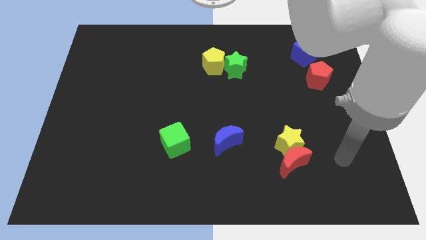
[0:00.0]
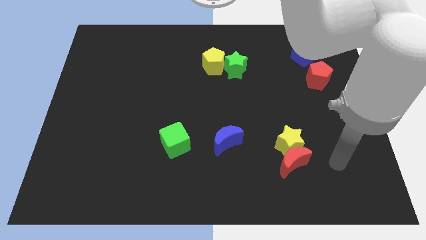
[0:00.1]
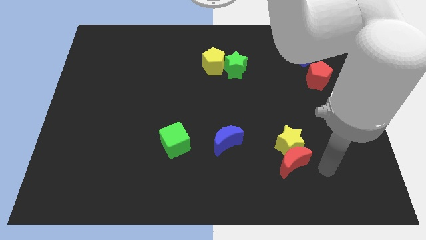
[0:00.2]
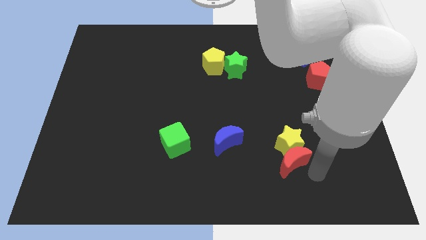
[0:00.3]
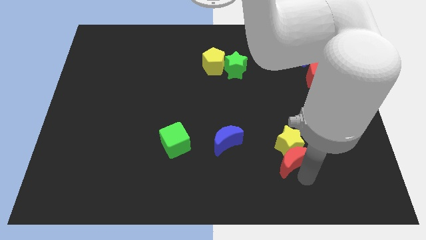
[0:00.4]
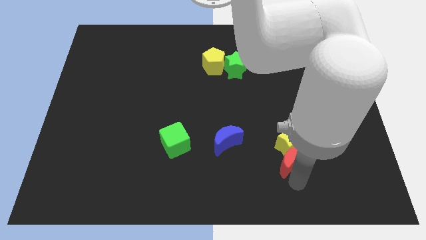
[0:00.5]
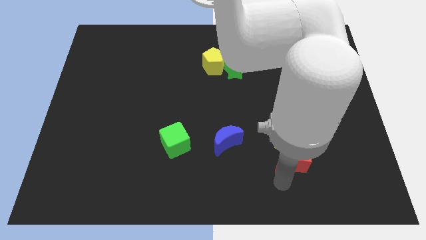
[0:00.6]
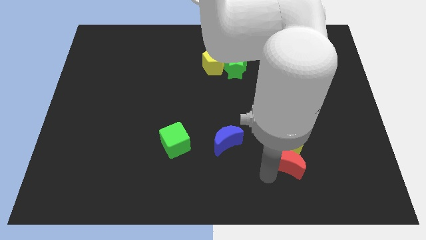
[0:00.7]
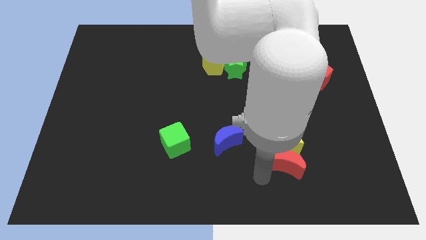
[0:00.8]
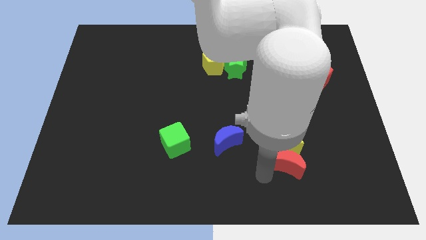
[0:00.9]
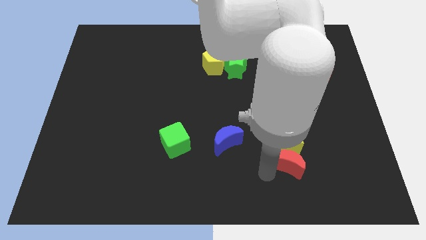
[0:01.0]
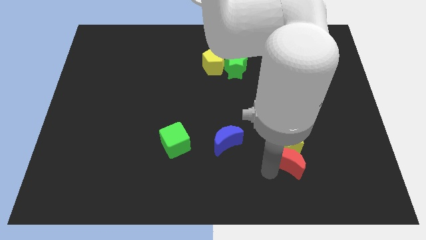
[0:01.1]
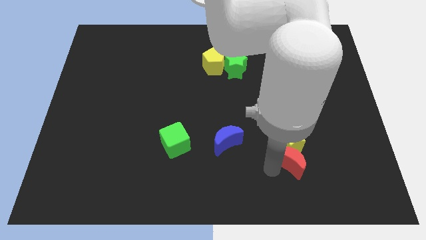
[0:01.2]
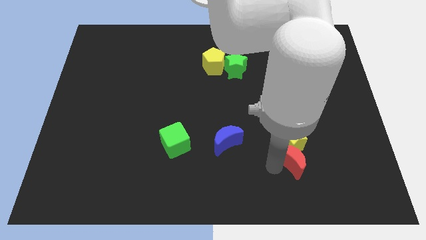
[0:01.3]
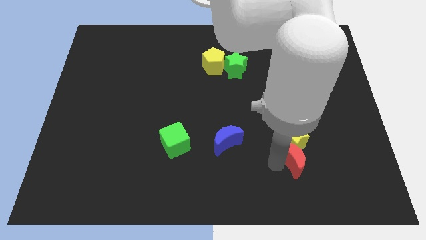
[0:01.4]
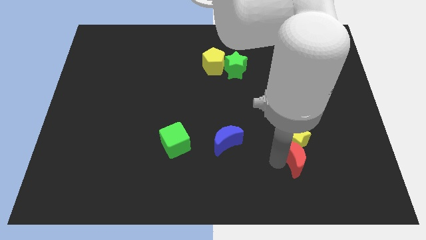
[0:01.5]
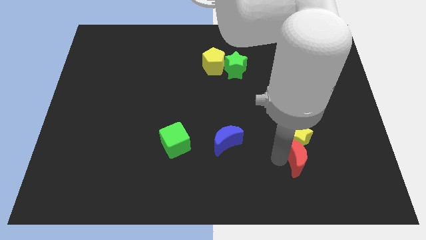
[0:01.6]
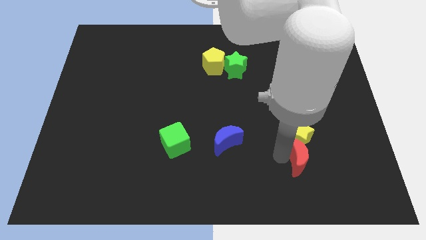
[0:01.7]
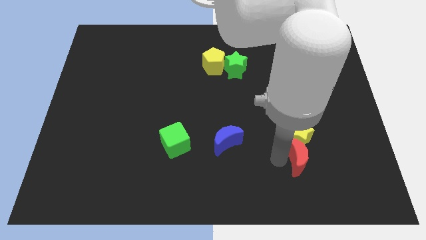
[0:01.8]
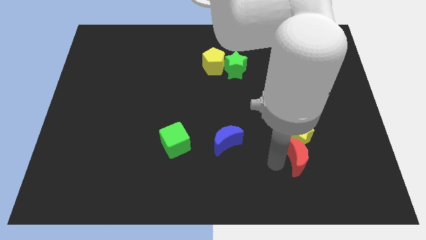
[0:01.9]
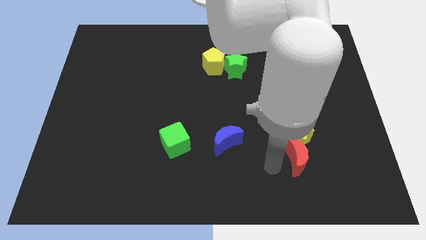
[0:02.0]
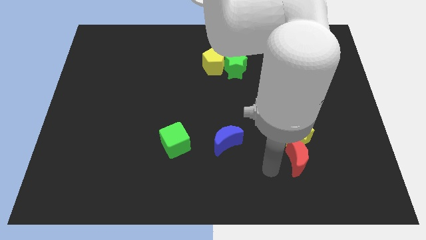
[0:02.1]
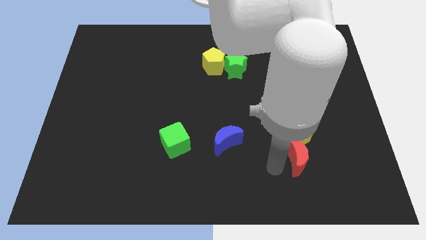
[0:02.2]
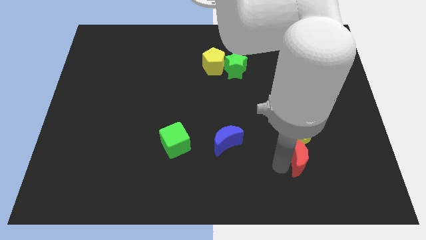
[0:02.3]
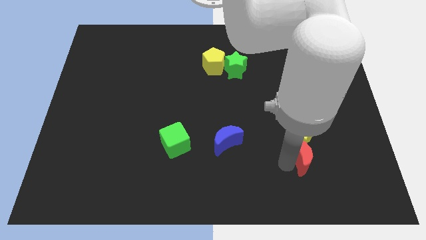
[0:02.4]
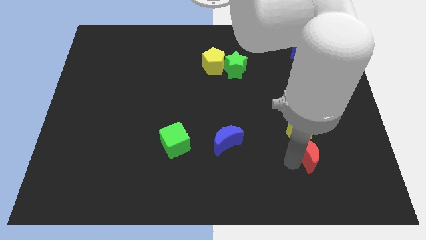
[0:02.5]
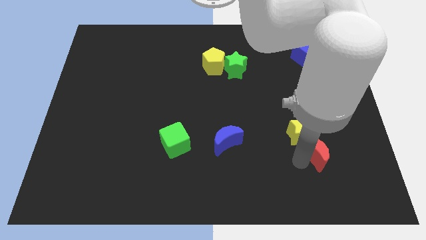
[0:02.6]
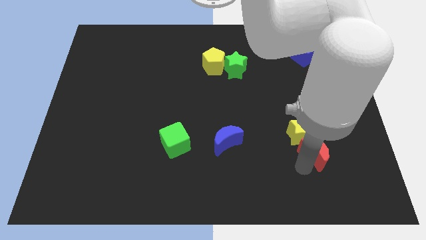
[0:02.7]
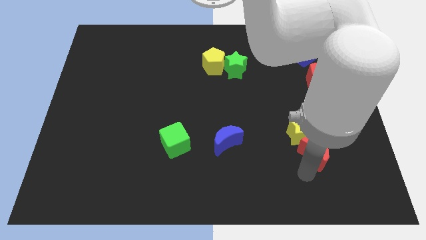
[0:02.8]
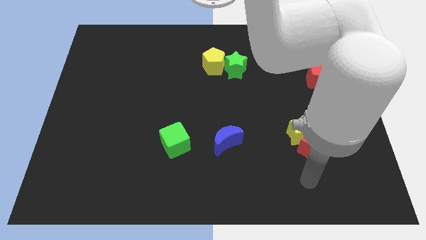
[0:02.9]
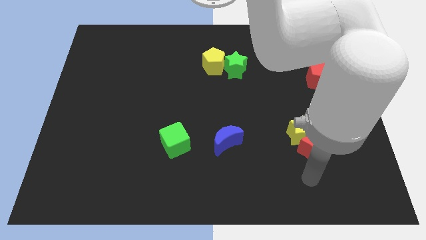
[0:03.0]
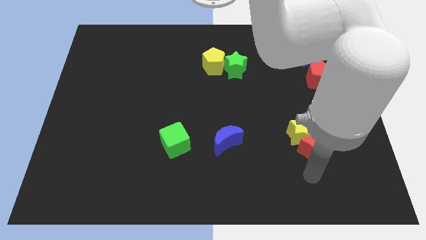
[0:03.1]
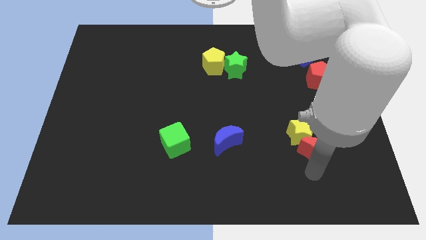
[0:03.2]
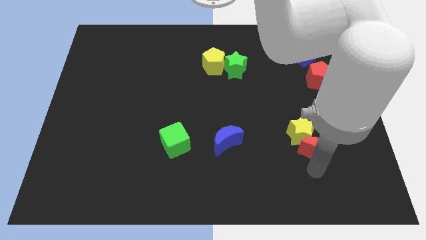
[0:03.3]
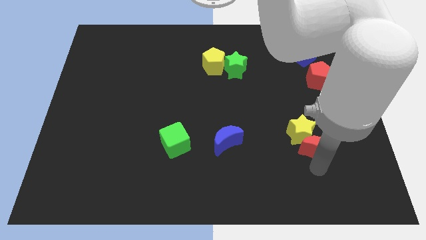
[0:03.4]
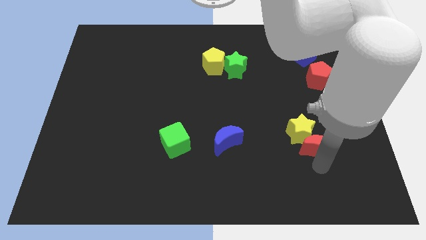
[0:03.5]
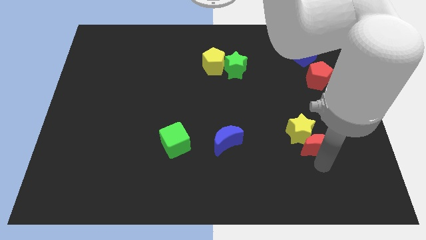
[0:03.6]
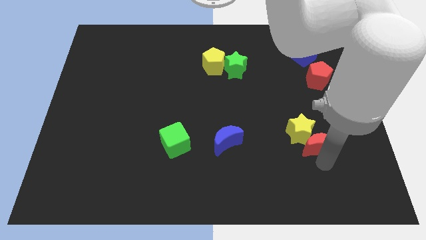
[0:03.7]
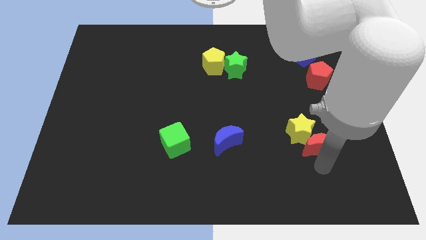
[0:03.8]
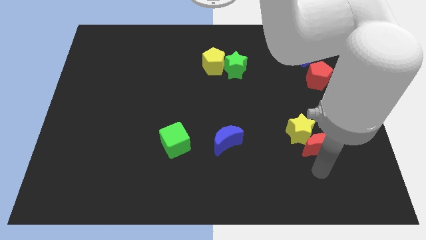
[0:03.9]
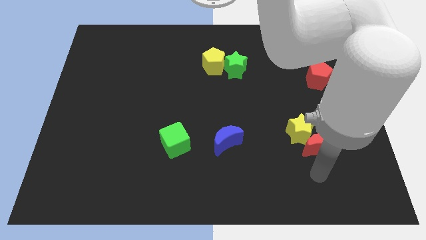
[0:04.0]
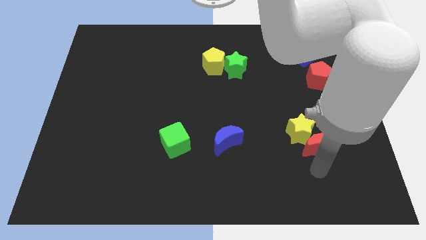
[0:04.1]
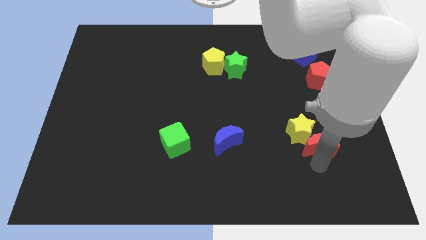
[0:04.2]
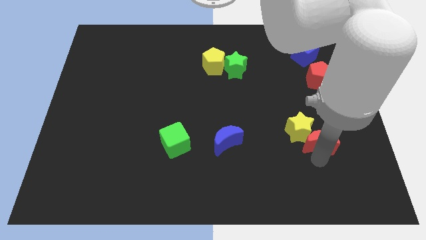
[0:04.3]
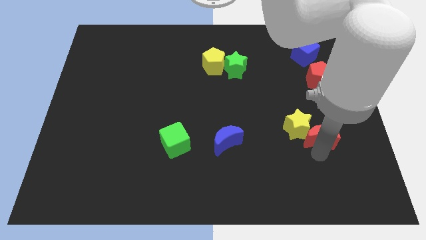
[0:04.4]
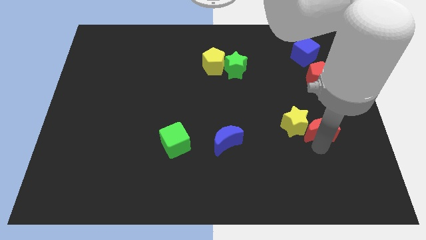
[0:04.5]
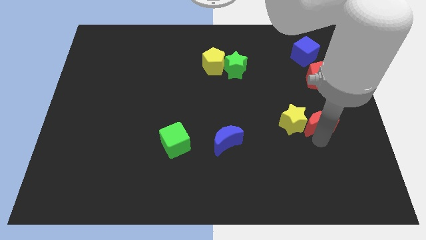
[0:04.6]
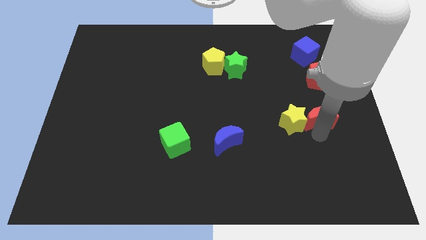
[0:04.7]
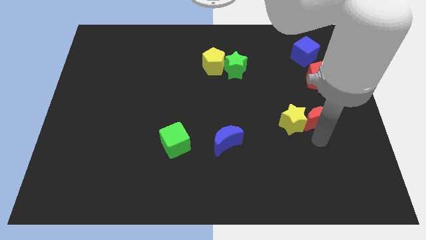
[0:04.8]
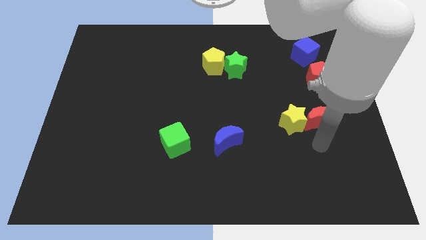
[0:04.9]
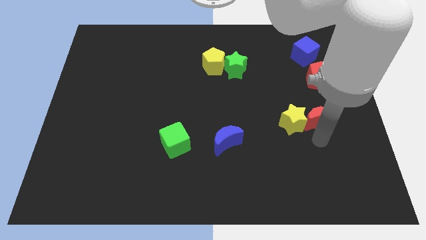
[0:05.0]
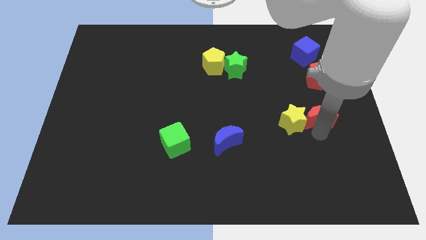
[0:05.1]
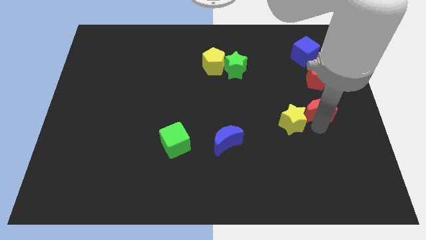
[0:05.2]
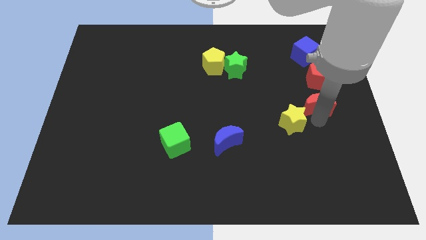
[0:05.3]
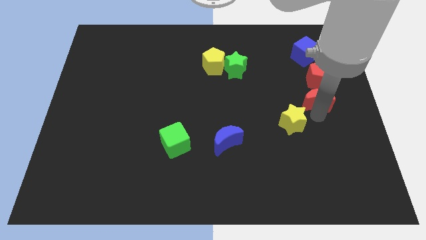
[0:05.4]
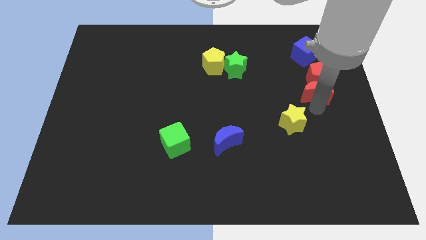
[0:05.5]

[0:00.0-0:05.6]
move the red moon next to the red pentagon
